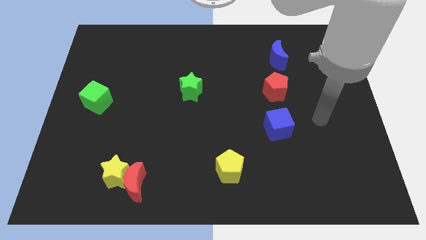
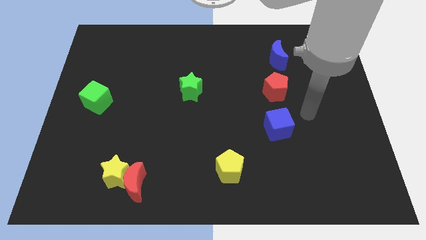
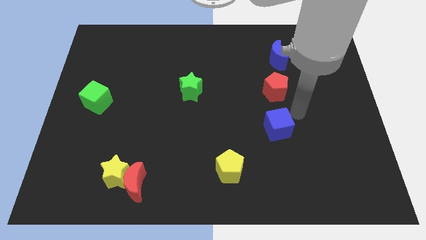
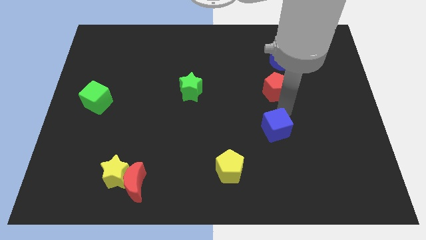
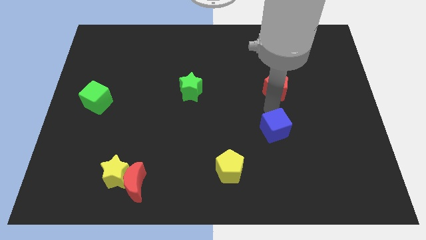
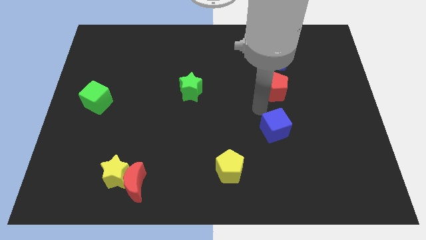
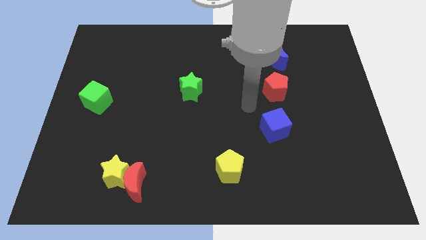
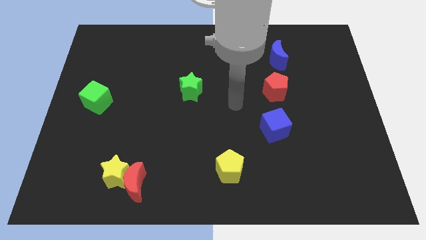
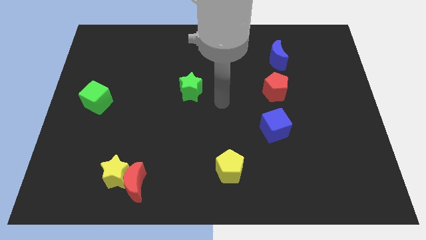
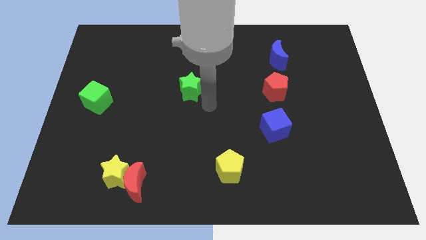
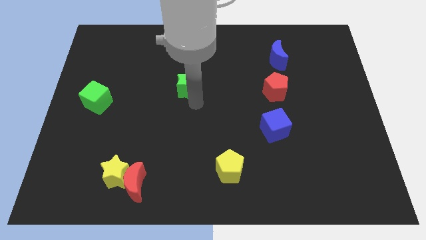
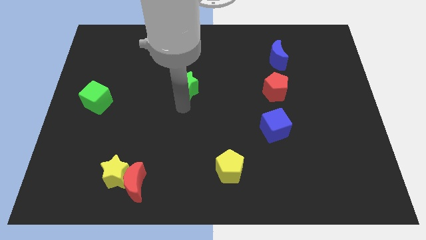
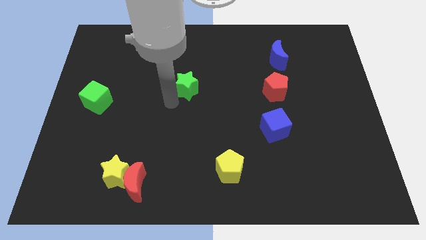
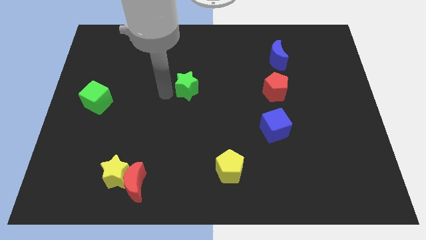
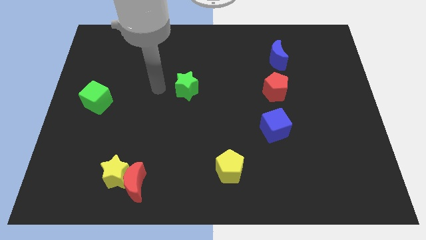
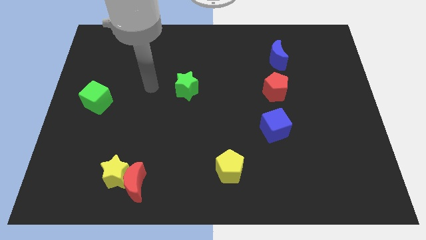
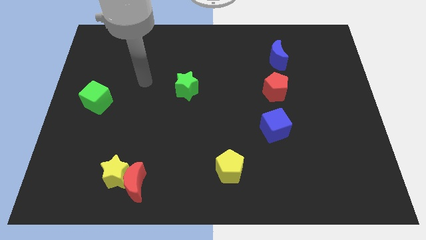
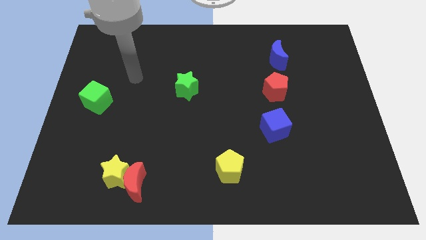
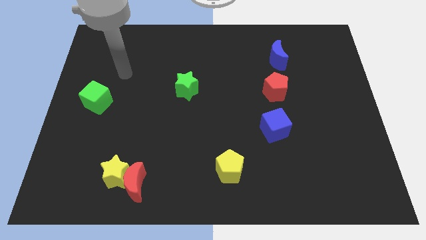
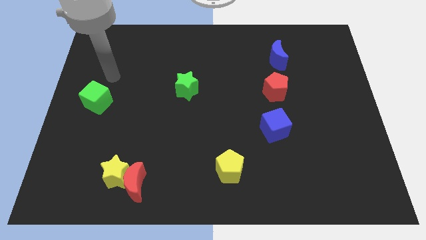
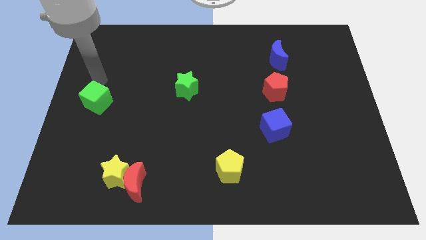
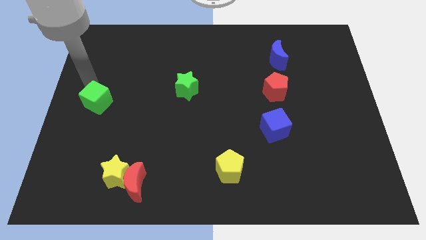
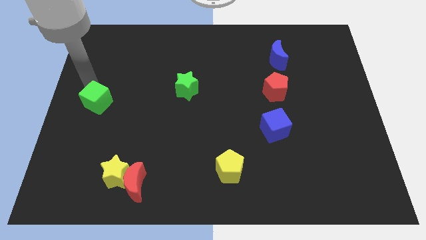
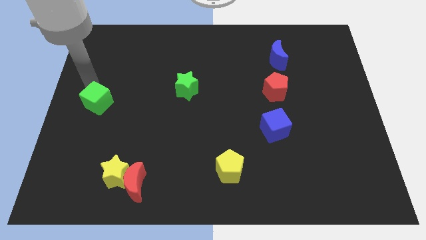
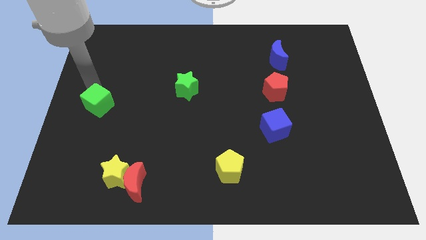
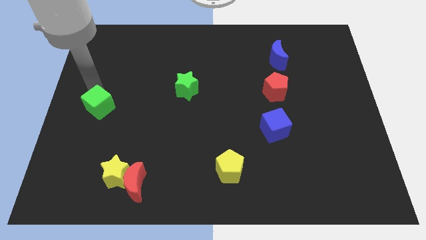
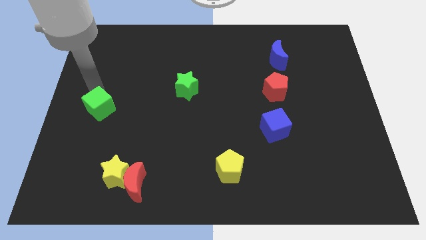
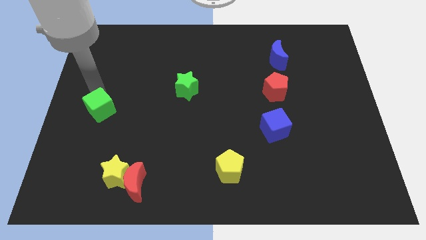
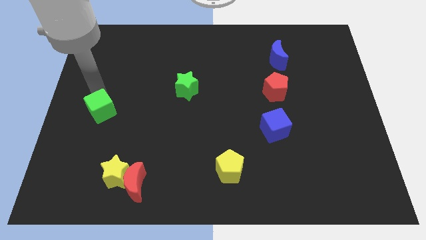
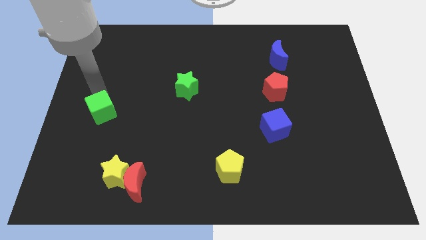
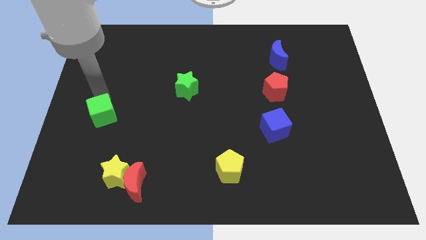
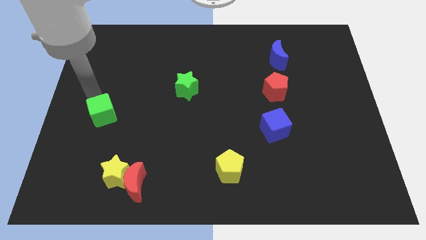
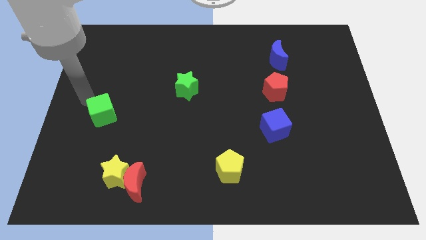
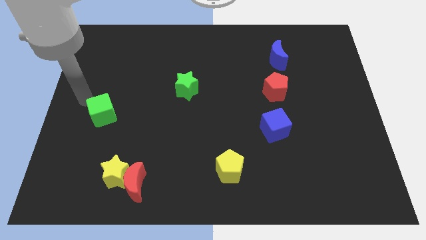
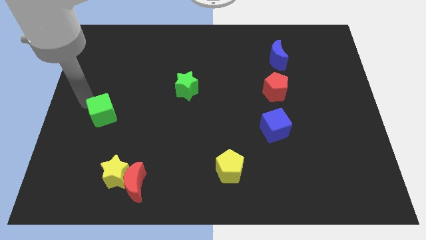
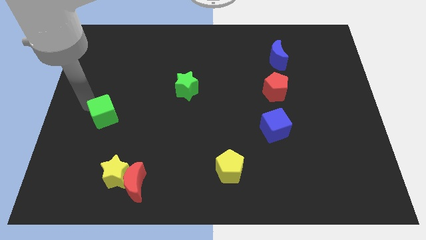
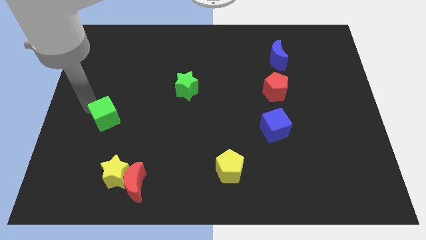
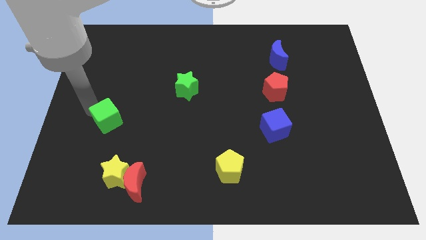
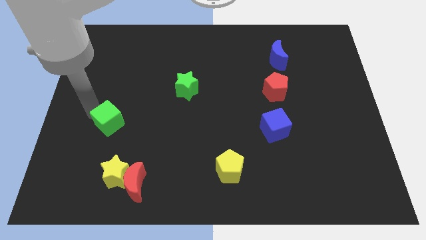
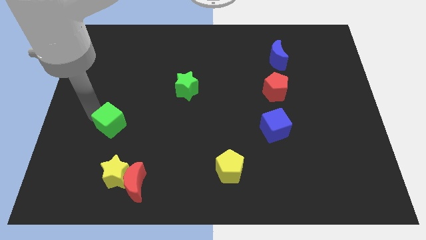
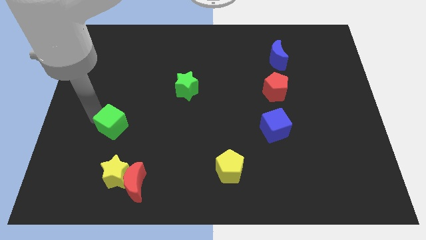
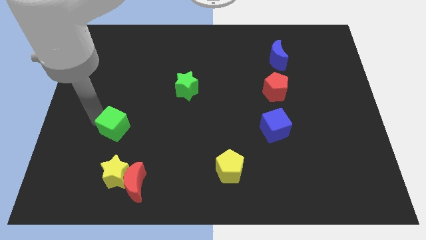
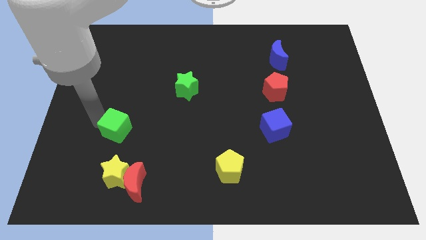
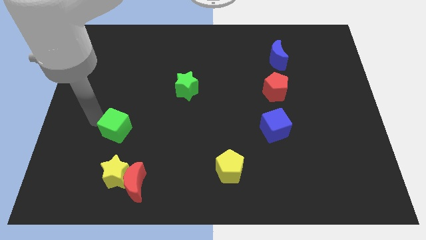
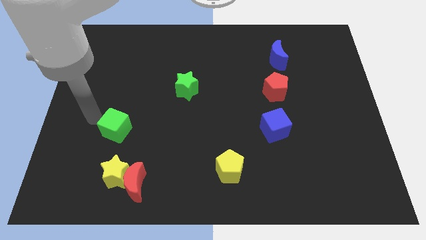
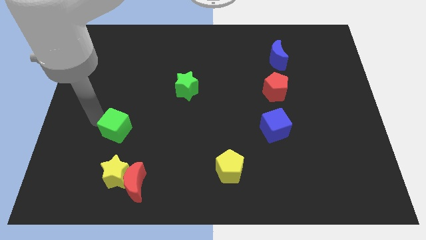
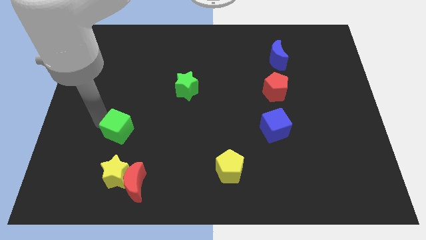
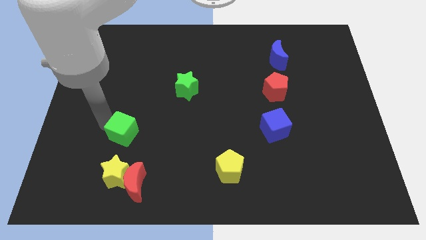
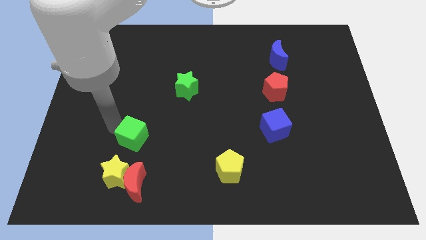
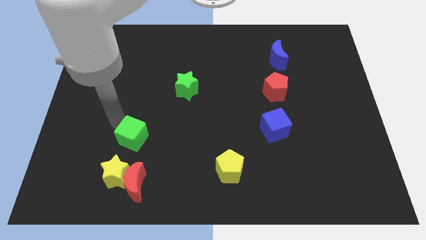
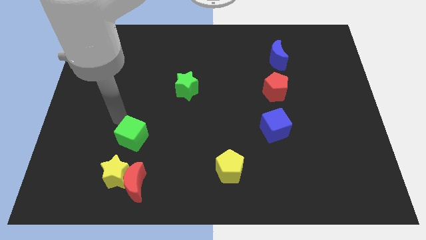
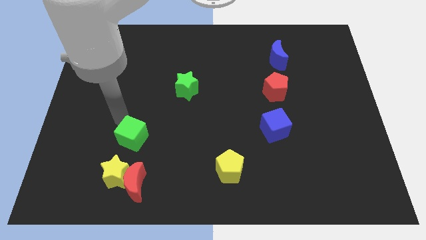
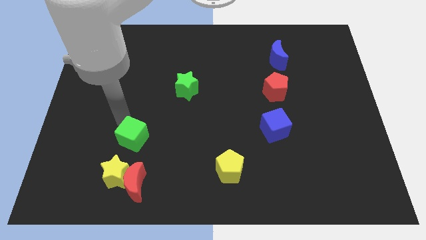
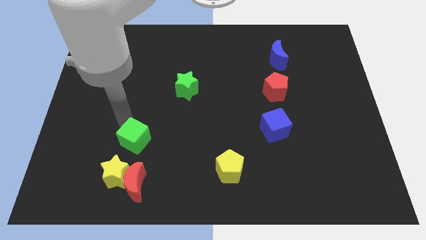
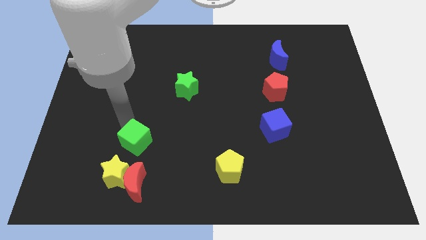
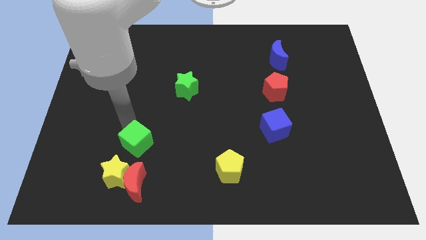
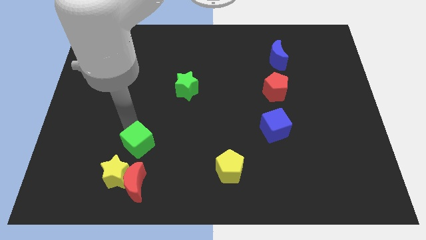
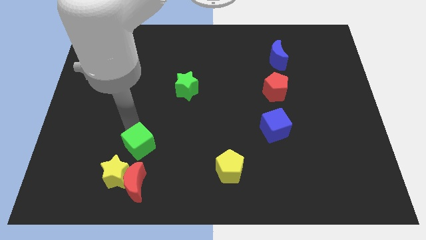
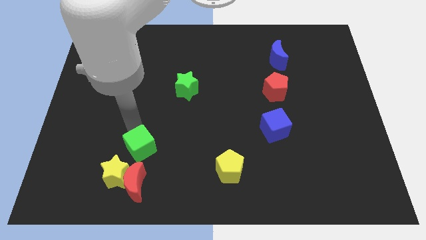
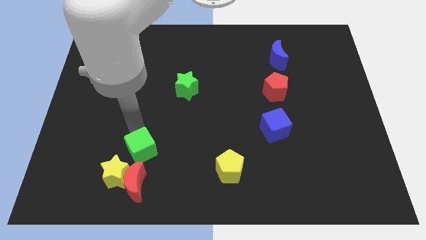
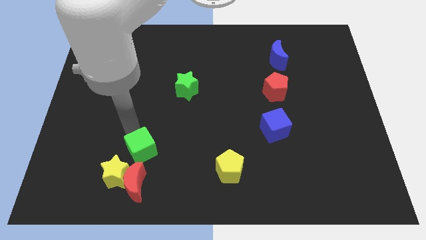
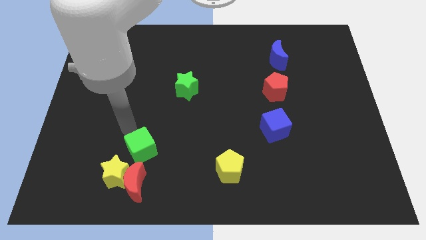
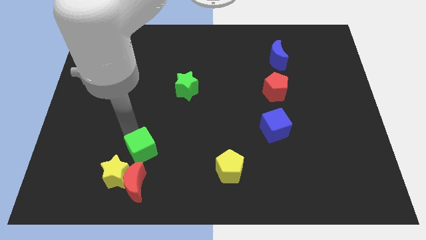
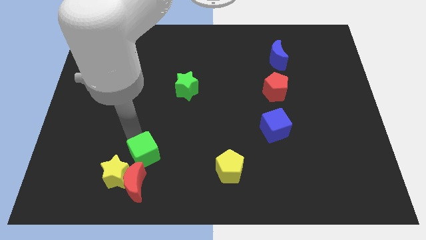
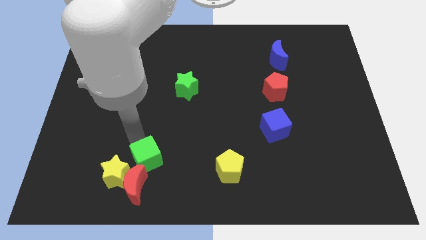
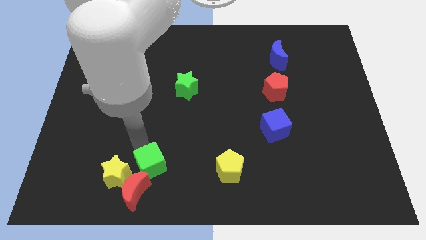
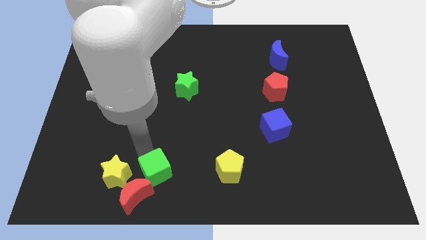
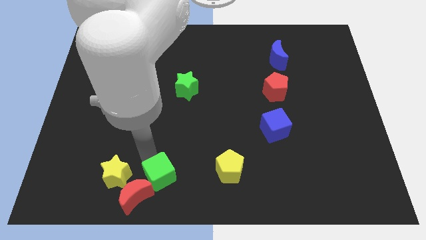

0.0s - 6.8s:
slide the green cube to the bottom
